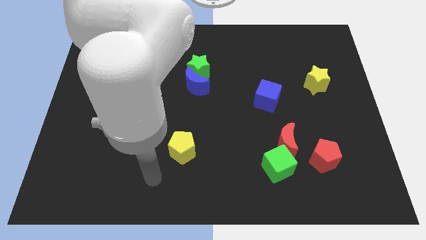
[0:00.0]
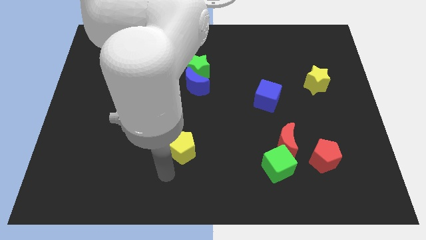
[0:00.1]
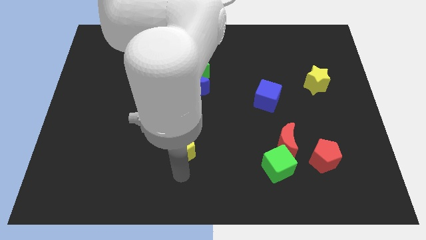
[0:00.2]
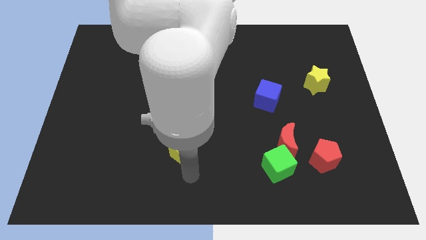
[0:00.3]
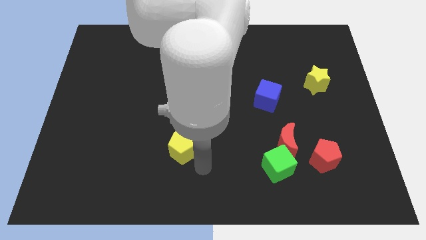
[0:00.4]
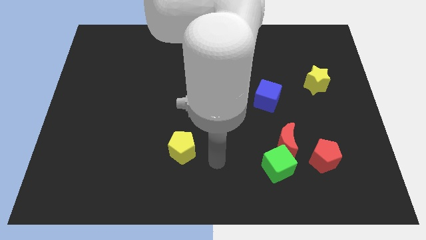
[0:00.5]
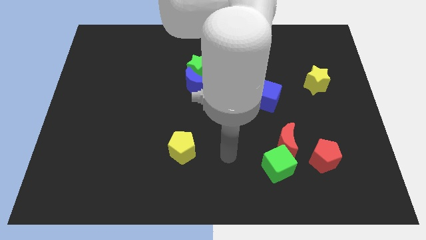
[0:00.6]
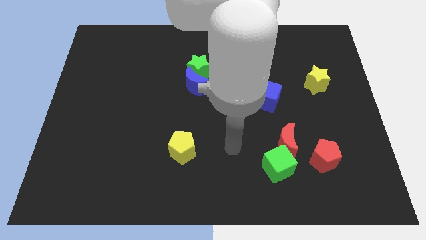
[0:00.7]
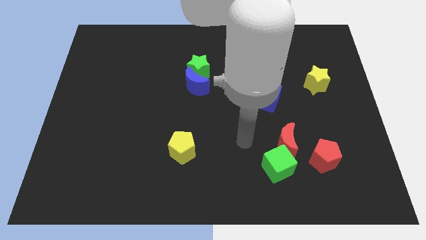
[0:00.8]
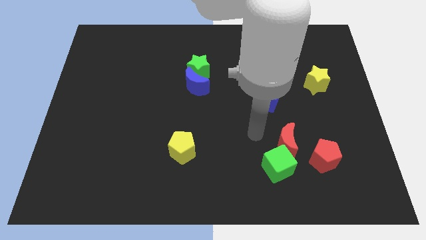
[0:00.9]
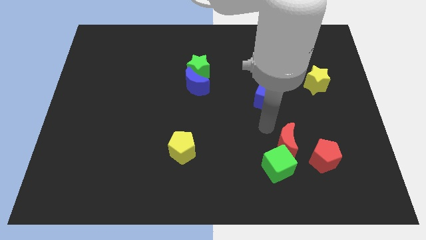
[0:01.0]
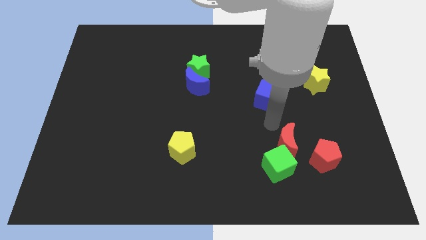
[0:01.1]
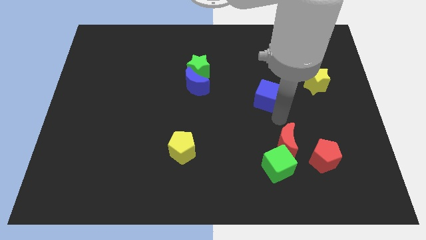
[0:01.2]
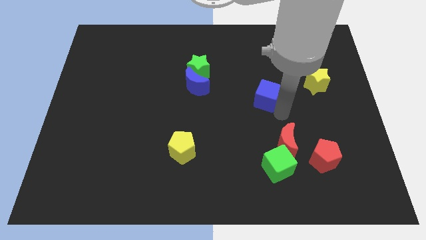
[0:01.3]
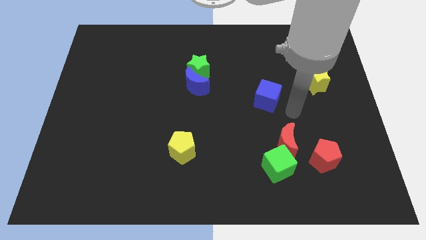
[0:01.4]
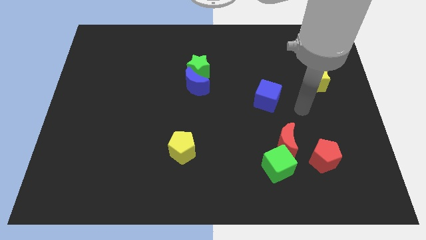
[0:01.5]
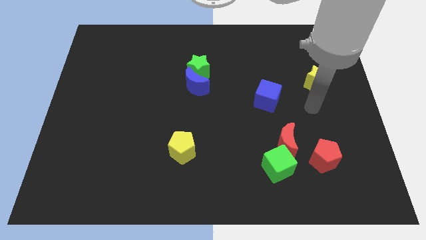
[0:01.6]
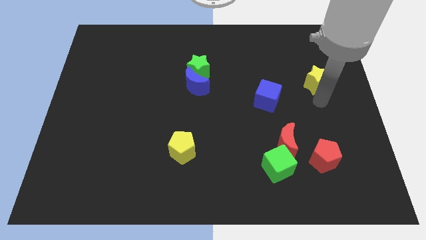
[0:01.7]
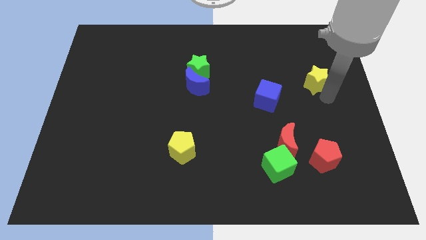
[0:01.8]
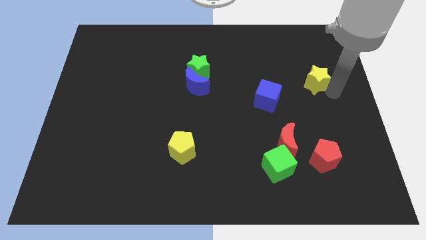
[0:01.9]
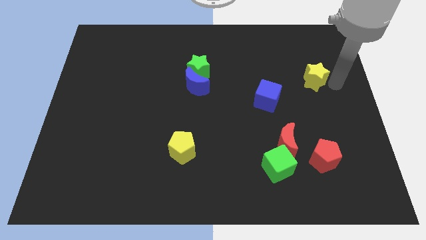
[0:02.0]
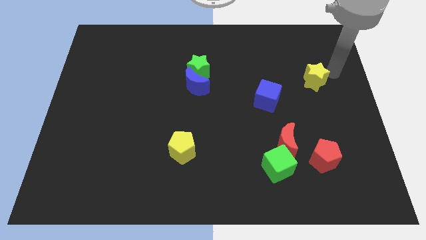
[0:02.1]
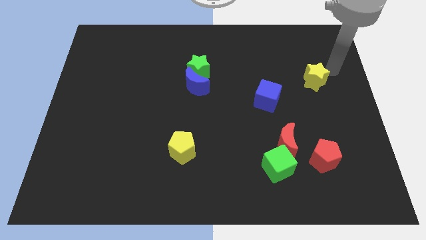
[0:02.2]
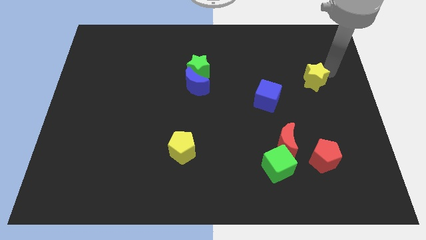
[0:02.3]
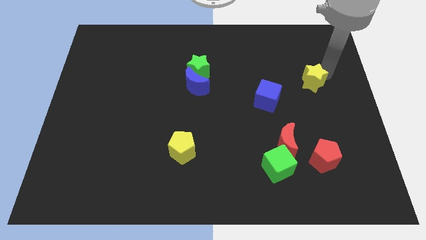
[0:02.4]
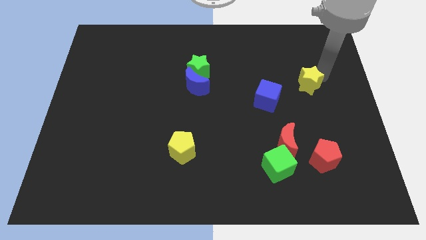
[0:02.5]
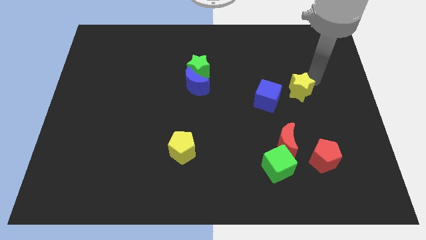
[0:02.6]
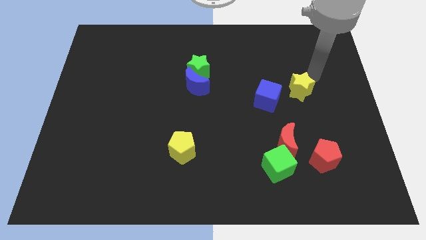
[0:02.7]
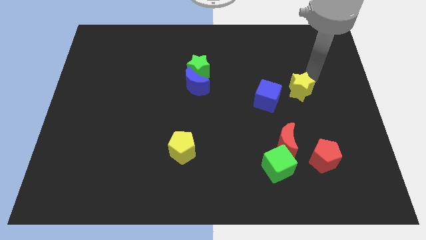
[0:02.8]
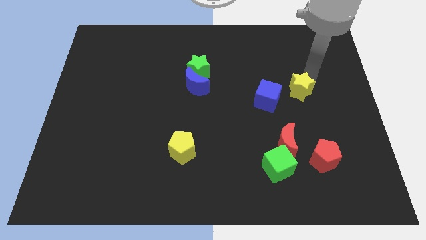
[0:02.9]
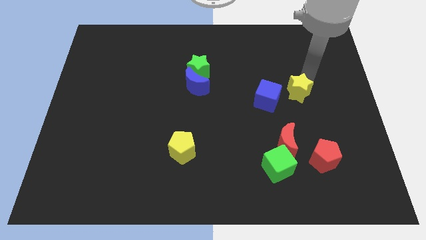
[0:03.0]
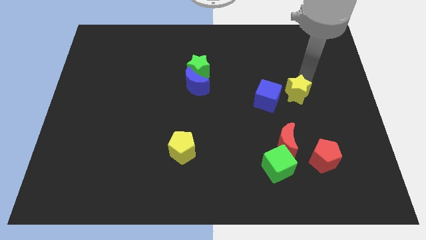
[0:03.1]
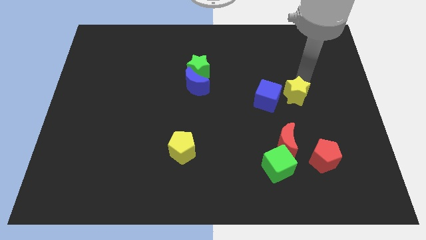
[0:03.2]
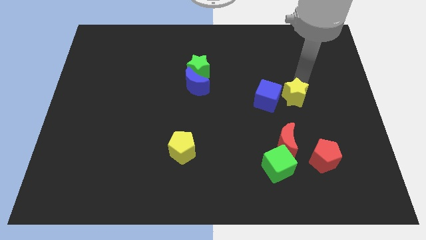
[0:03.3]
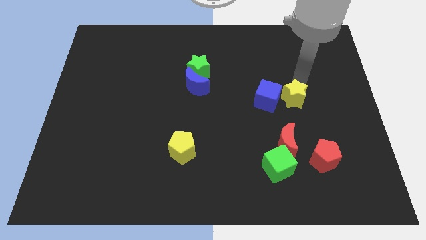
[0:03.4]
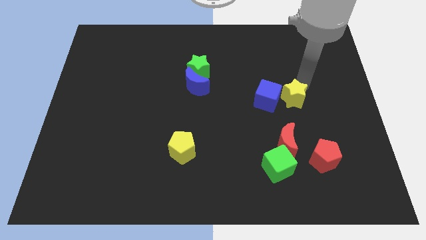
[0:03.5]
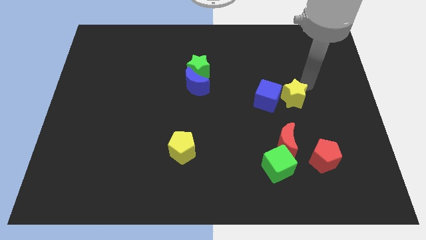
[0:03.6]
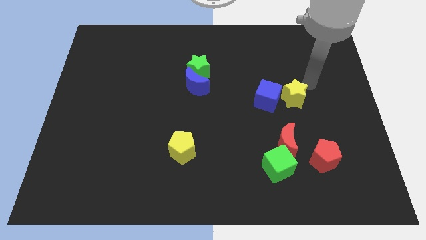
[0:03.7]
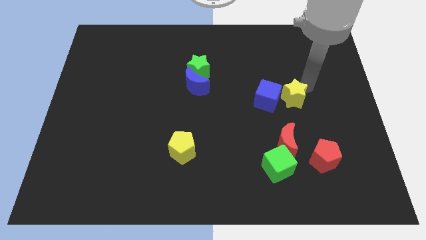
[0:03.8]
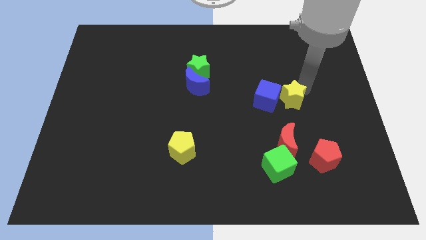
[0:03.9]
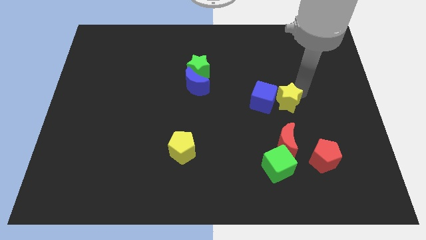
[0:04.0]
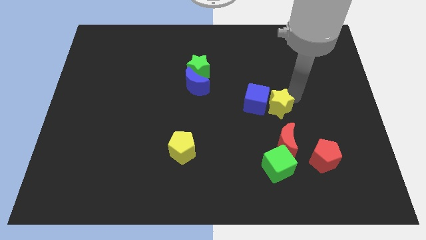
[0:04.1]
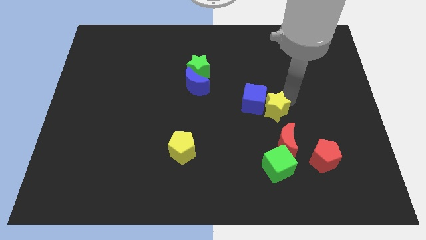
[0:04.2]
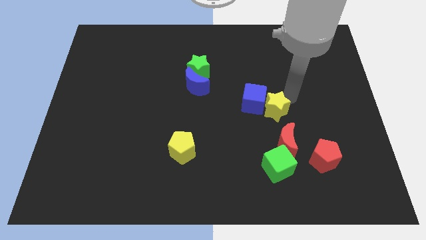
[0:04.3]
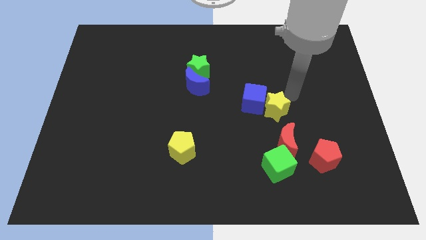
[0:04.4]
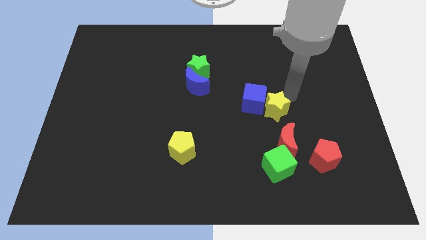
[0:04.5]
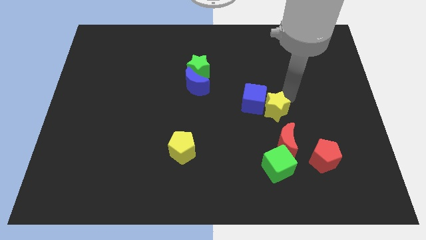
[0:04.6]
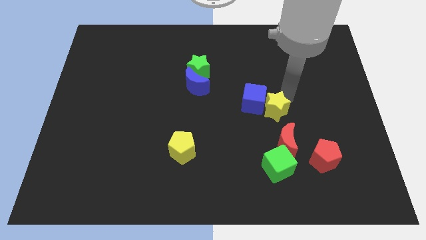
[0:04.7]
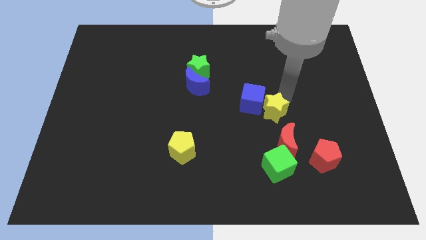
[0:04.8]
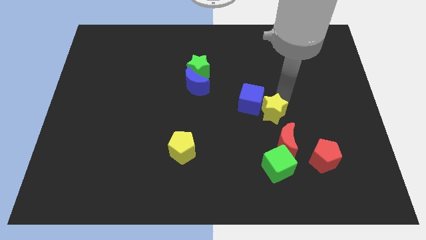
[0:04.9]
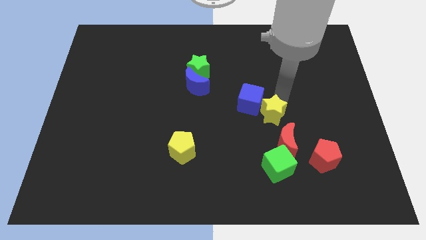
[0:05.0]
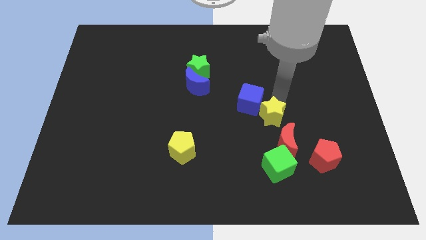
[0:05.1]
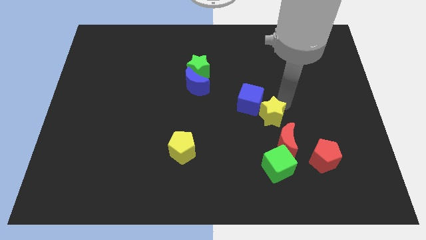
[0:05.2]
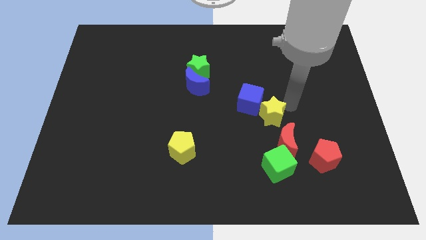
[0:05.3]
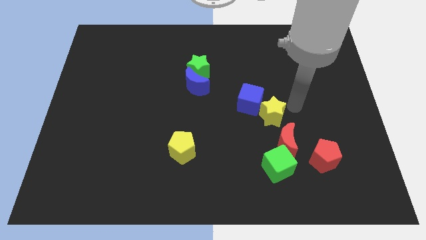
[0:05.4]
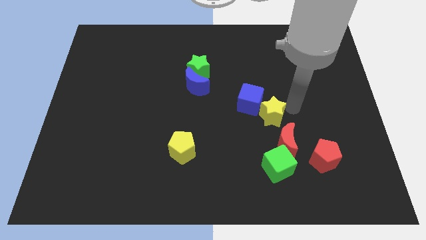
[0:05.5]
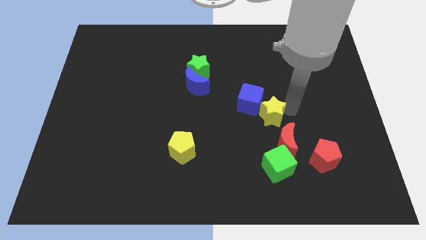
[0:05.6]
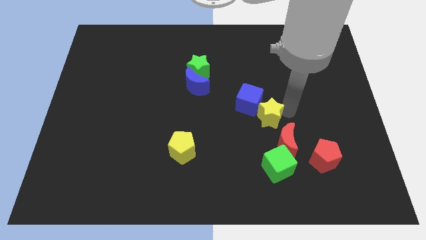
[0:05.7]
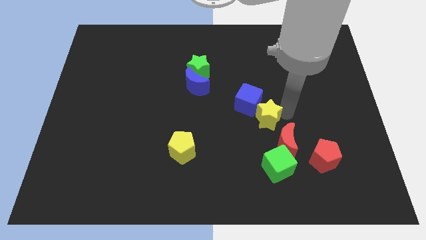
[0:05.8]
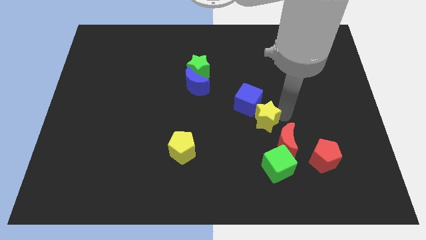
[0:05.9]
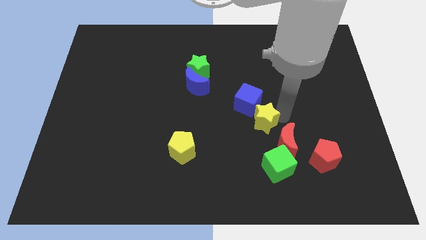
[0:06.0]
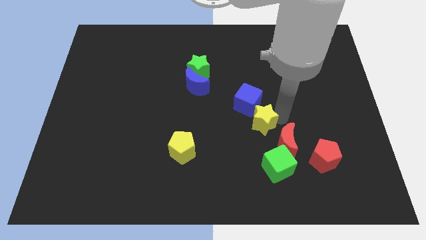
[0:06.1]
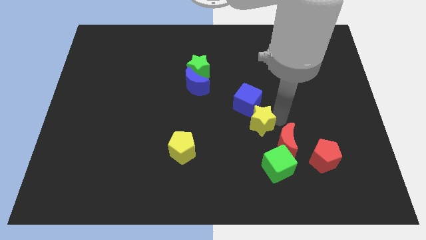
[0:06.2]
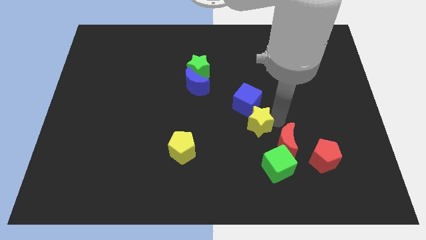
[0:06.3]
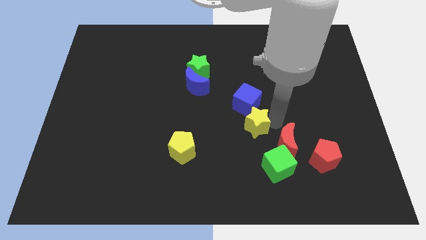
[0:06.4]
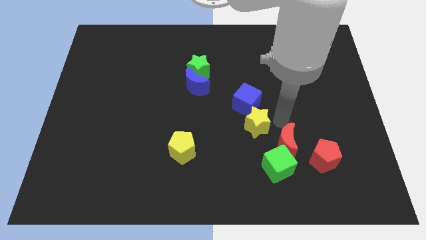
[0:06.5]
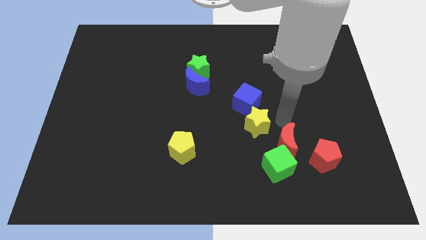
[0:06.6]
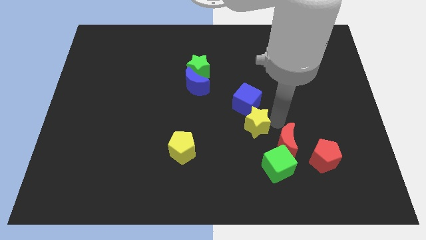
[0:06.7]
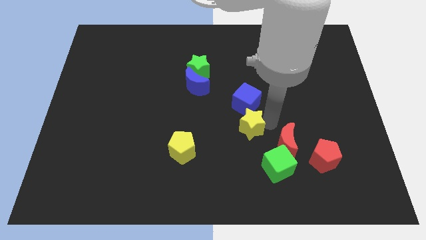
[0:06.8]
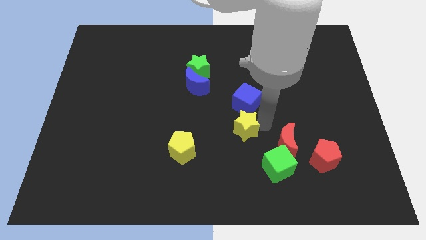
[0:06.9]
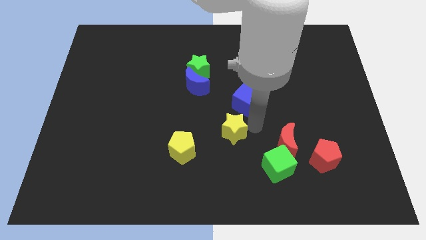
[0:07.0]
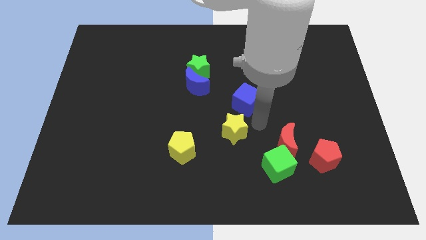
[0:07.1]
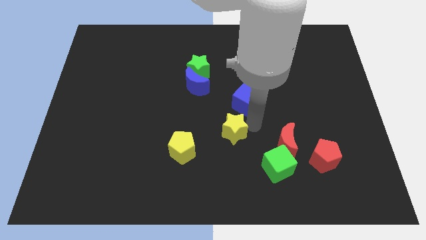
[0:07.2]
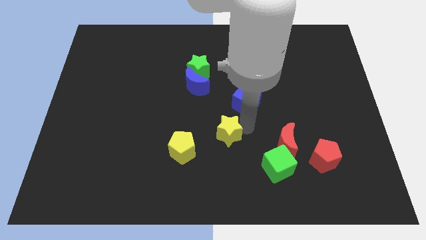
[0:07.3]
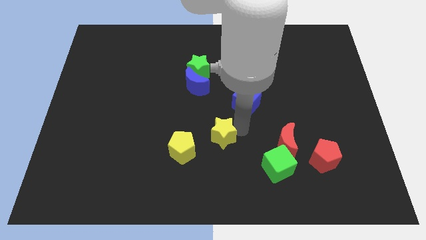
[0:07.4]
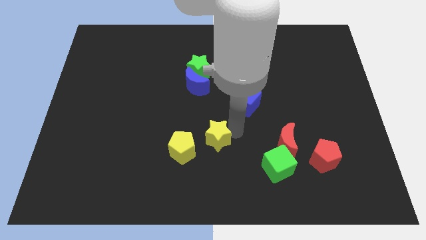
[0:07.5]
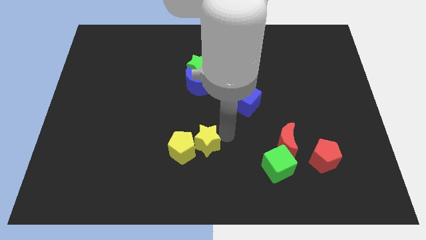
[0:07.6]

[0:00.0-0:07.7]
move the yellow star towards the yellow pentagon
